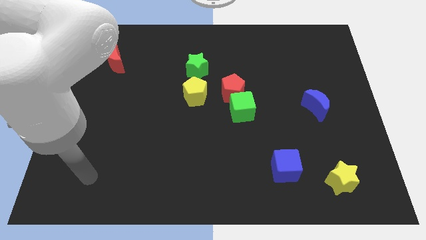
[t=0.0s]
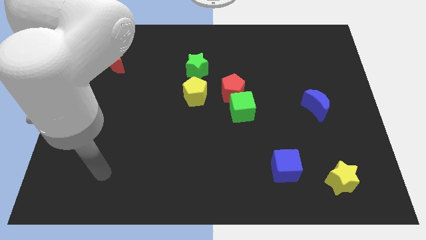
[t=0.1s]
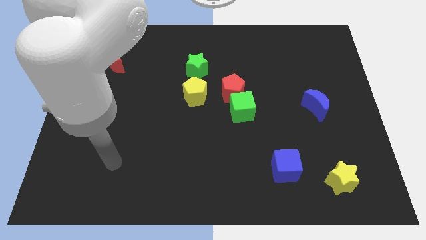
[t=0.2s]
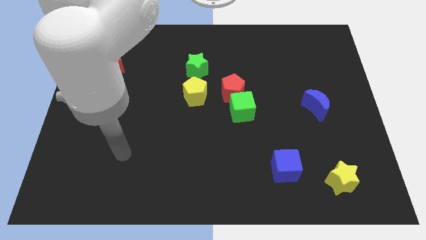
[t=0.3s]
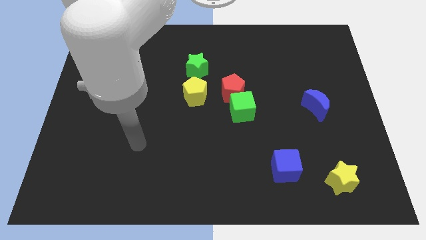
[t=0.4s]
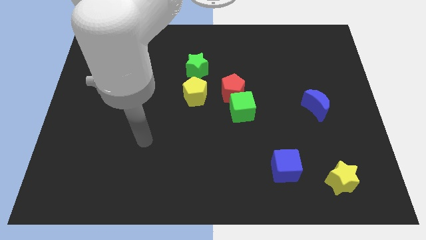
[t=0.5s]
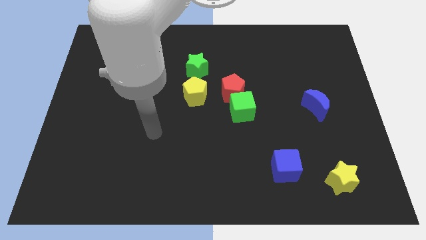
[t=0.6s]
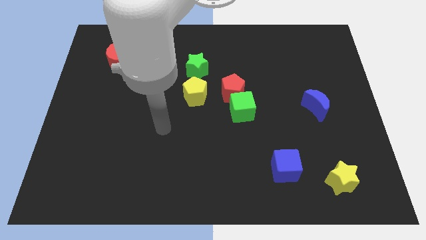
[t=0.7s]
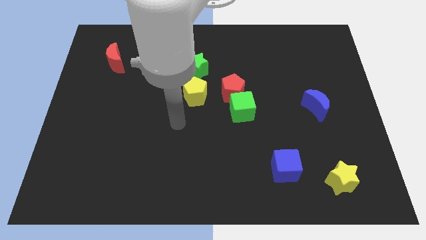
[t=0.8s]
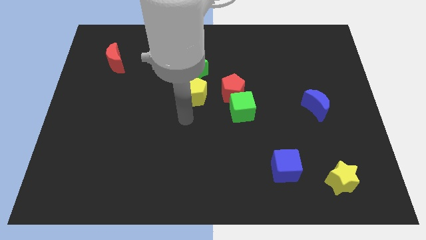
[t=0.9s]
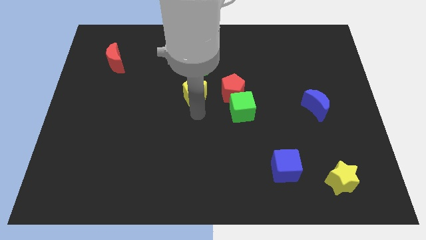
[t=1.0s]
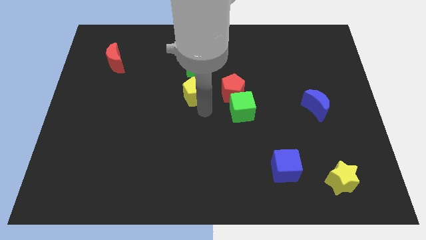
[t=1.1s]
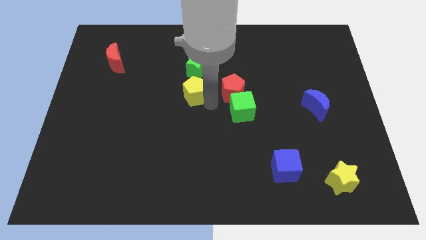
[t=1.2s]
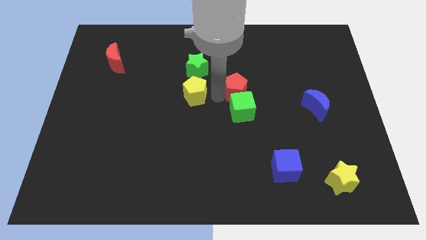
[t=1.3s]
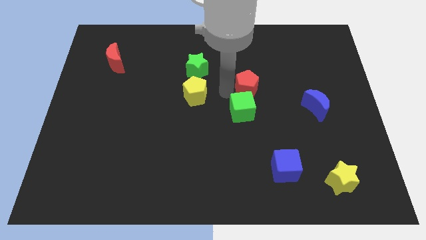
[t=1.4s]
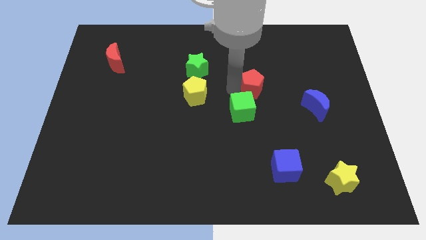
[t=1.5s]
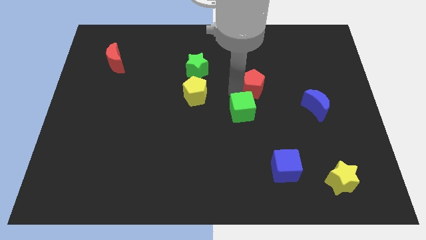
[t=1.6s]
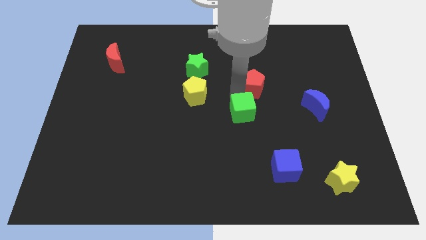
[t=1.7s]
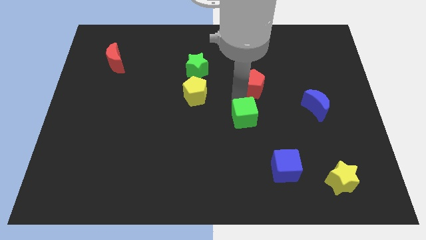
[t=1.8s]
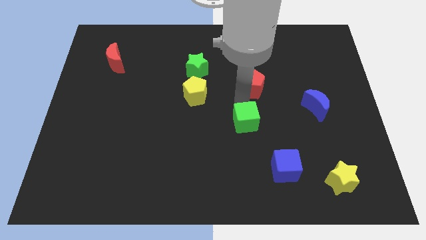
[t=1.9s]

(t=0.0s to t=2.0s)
pull the green cube apart from the red pentagon

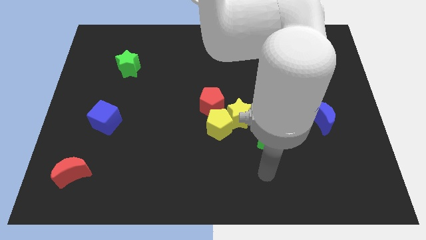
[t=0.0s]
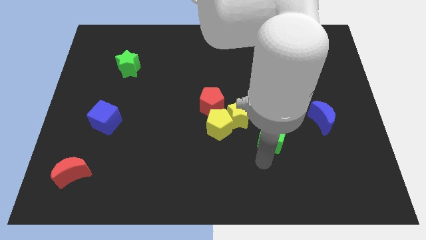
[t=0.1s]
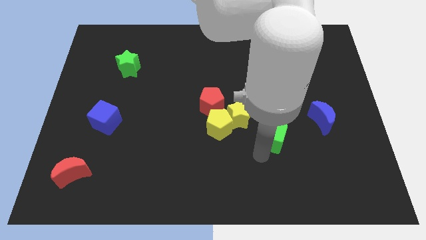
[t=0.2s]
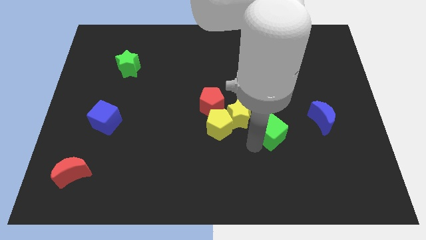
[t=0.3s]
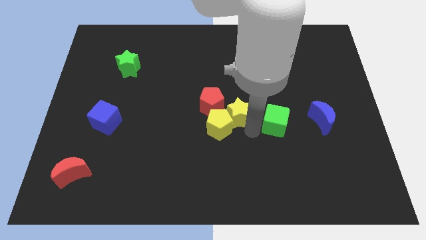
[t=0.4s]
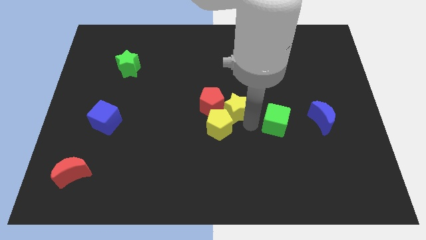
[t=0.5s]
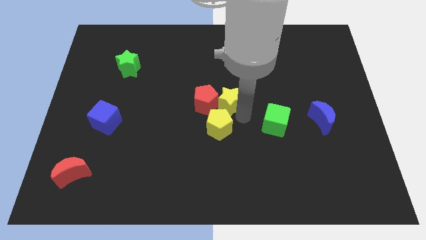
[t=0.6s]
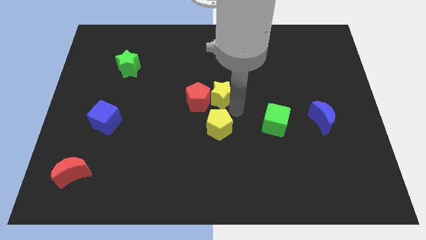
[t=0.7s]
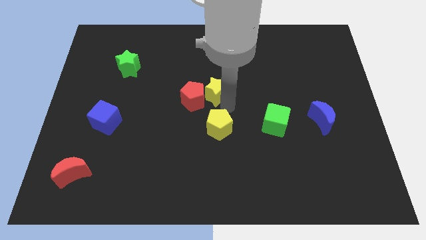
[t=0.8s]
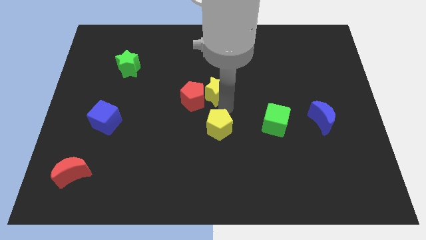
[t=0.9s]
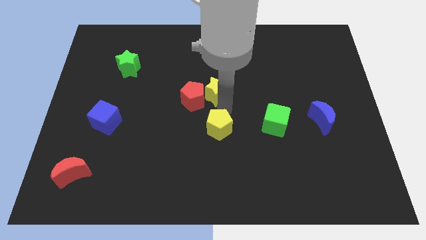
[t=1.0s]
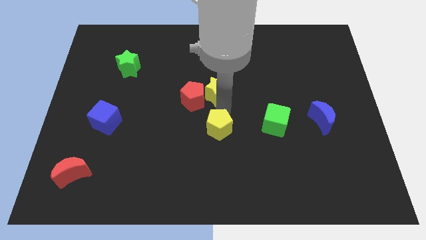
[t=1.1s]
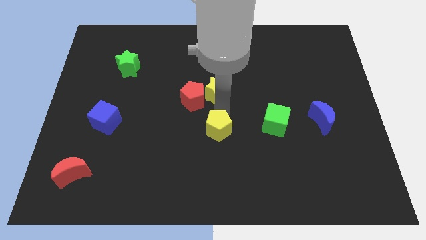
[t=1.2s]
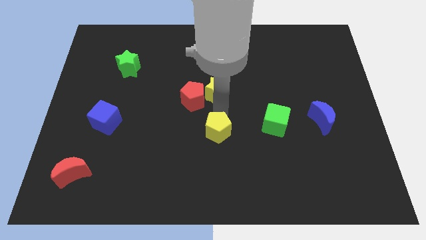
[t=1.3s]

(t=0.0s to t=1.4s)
move the yellow pentagon away from the yellow star and red pentagon

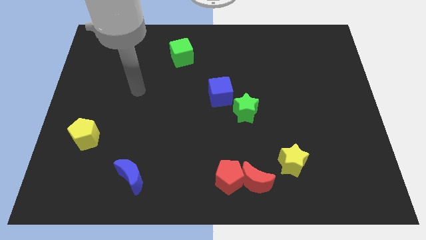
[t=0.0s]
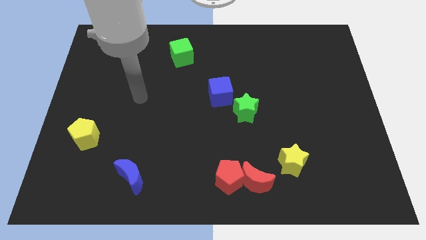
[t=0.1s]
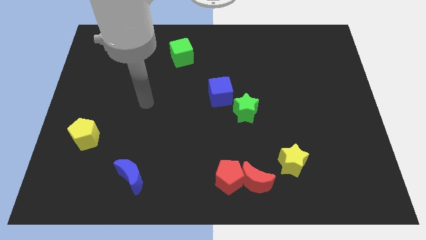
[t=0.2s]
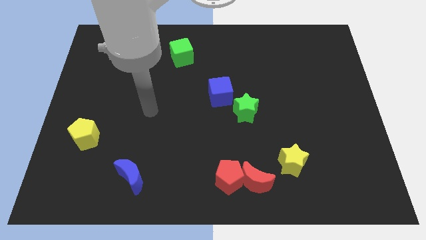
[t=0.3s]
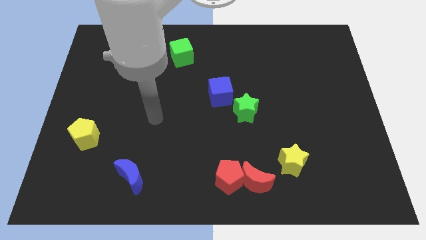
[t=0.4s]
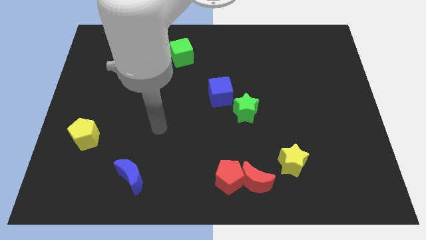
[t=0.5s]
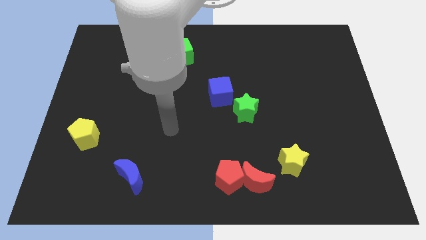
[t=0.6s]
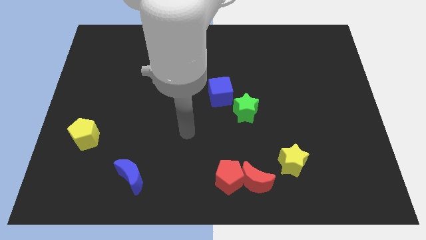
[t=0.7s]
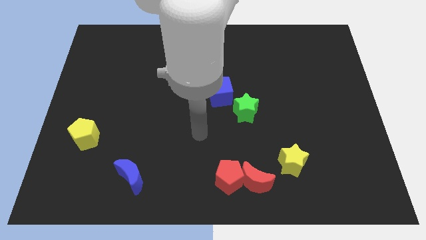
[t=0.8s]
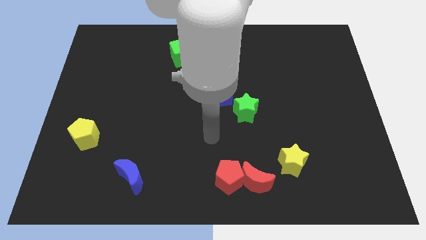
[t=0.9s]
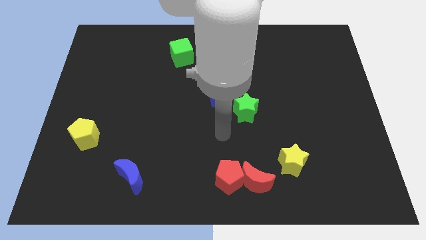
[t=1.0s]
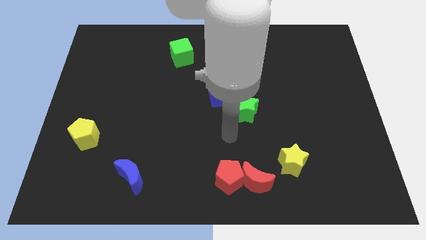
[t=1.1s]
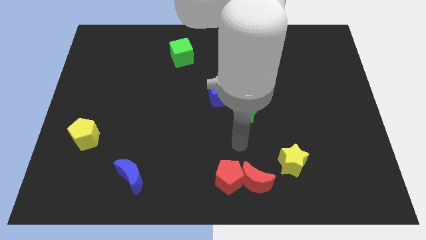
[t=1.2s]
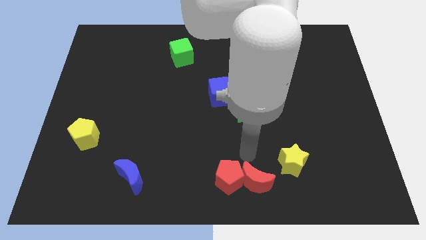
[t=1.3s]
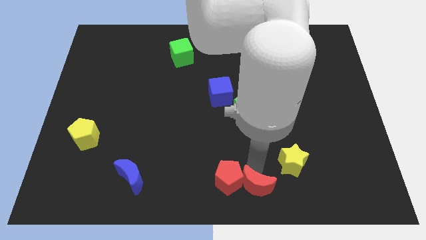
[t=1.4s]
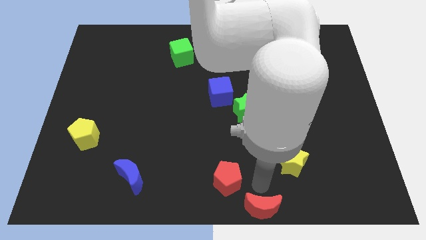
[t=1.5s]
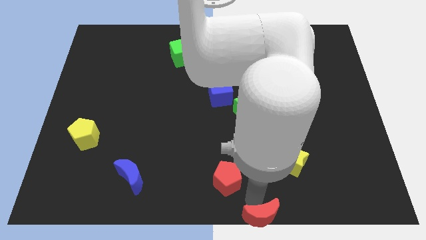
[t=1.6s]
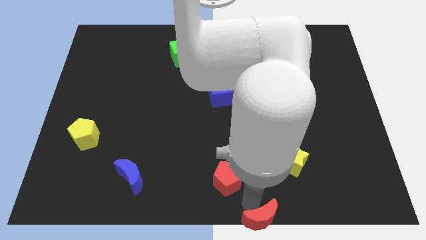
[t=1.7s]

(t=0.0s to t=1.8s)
separate the red pentagon from the red moon

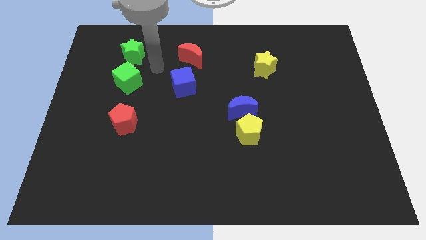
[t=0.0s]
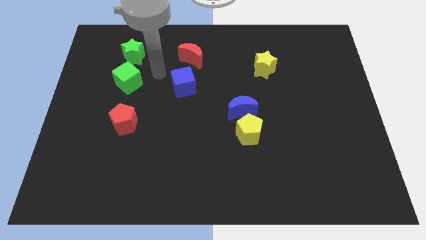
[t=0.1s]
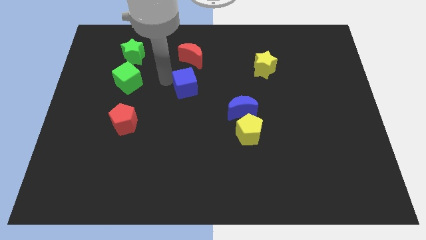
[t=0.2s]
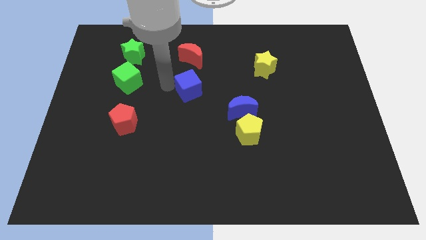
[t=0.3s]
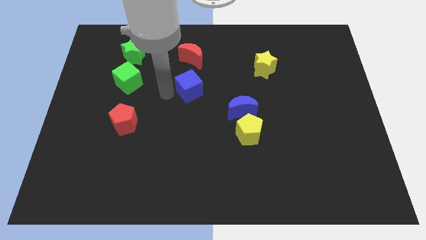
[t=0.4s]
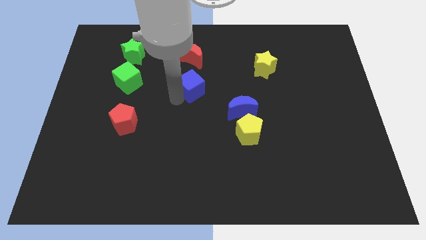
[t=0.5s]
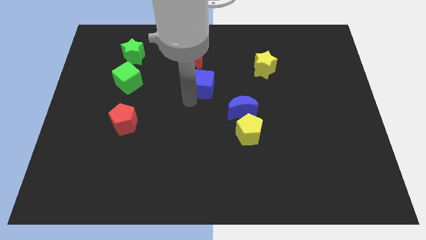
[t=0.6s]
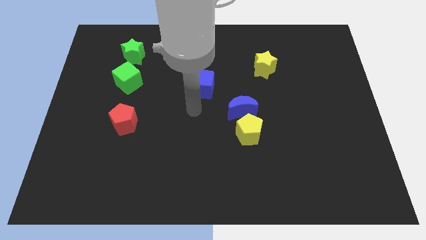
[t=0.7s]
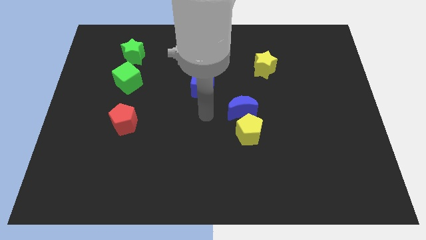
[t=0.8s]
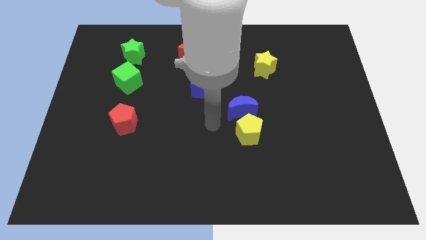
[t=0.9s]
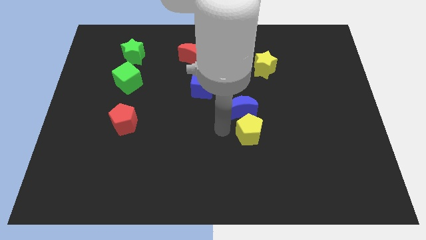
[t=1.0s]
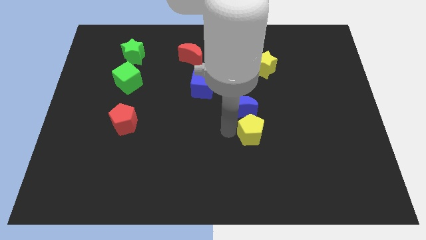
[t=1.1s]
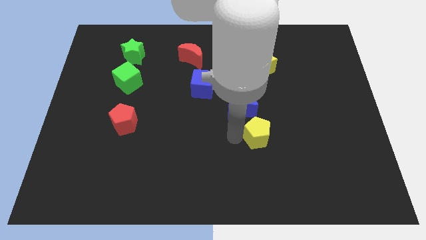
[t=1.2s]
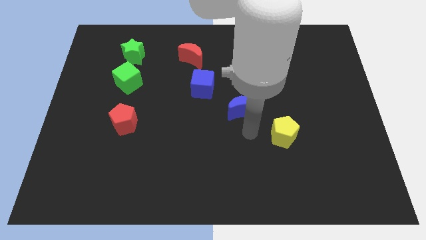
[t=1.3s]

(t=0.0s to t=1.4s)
move the blue moon away from the yellow pentagon

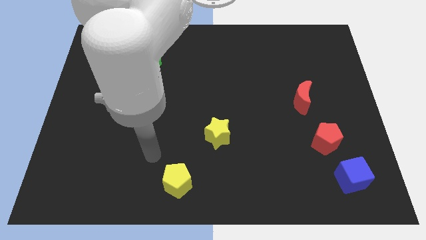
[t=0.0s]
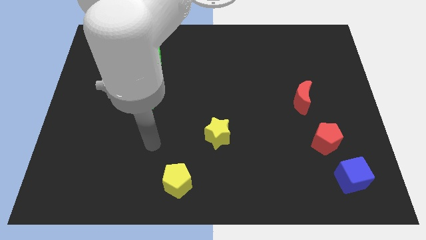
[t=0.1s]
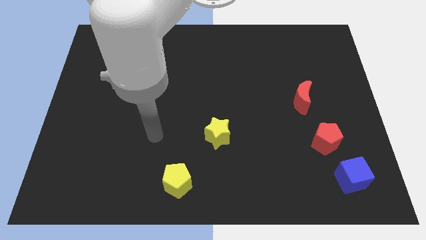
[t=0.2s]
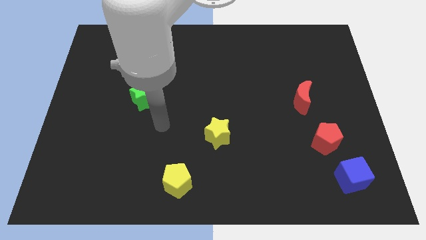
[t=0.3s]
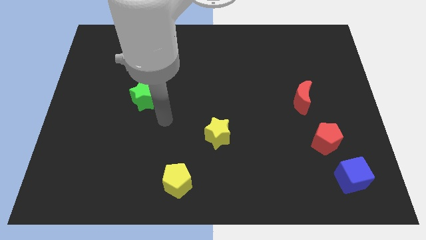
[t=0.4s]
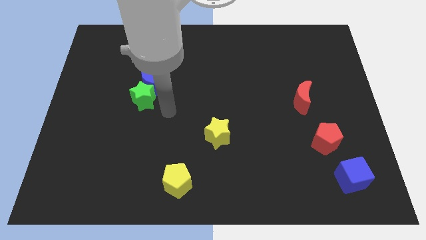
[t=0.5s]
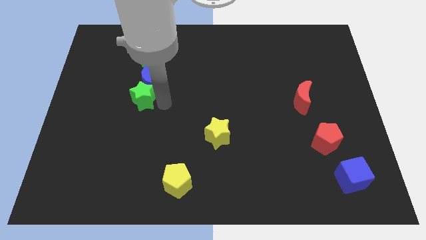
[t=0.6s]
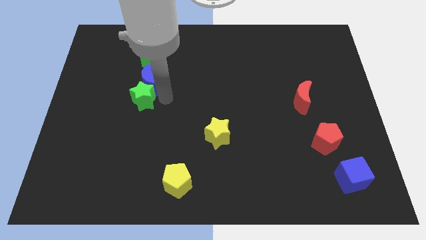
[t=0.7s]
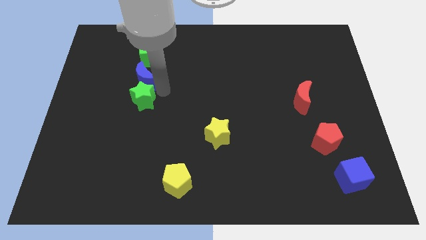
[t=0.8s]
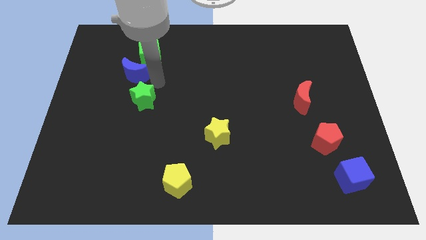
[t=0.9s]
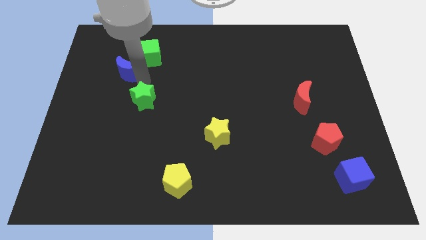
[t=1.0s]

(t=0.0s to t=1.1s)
move the green star away from the blue moon

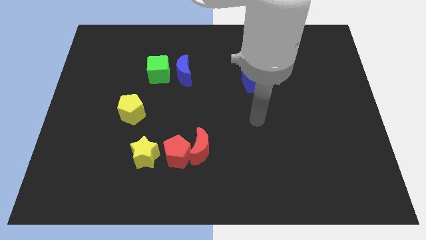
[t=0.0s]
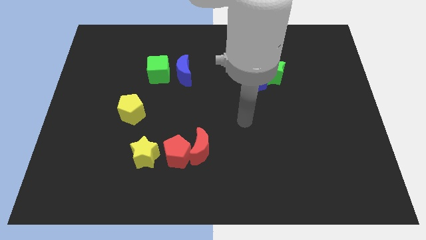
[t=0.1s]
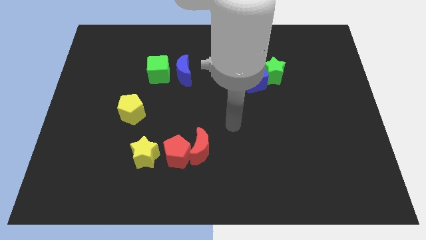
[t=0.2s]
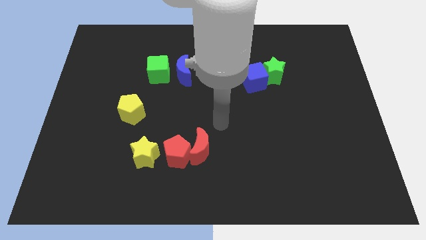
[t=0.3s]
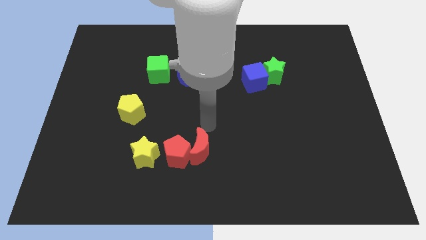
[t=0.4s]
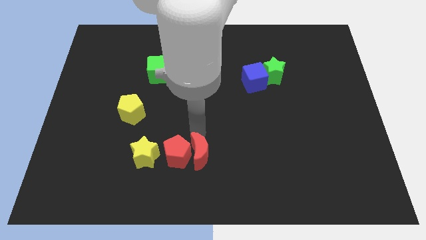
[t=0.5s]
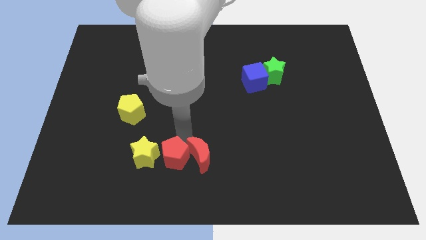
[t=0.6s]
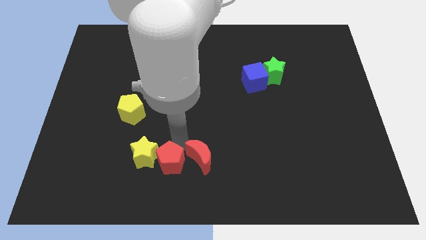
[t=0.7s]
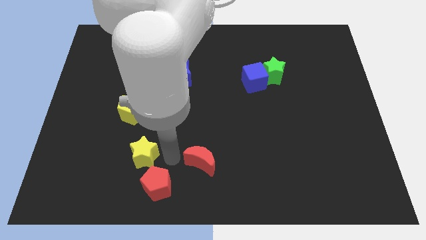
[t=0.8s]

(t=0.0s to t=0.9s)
move the red moon away from the red pentagon

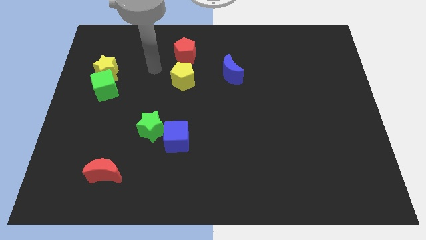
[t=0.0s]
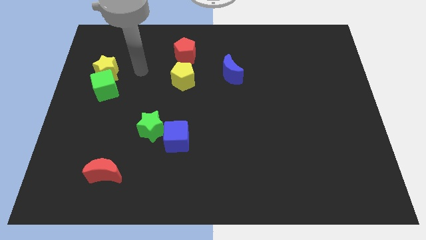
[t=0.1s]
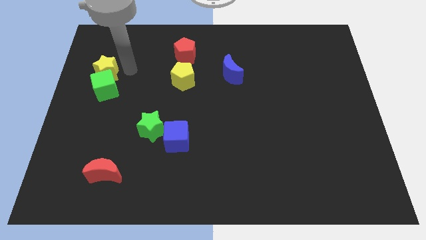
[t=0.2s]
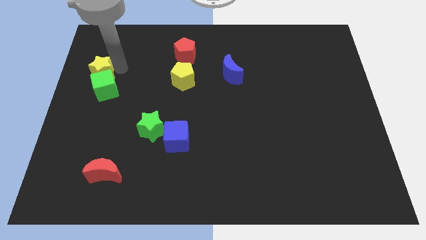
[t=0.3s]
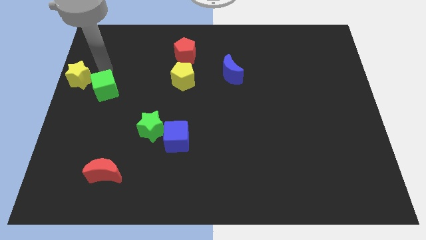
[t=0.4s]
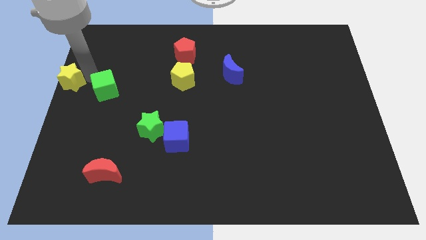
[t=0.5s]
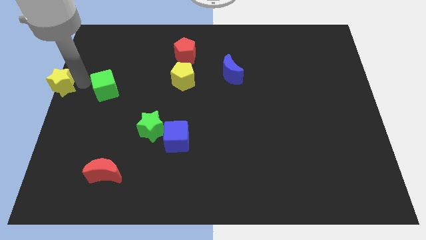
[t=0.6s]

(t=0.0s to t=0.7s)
move the green cube away from the yellow star
